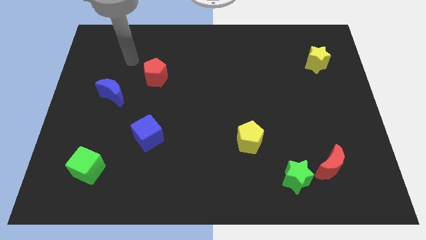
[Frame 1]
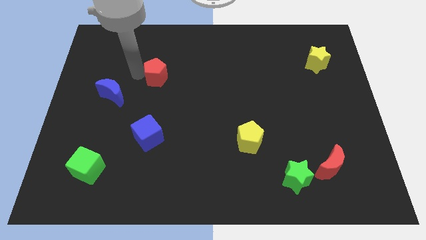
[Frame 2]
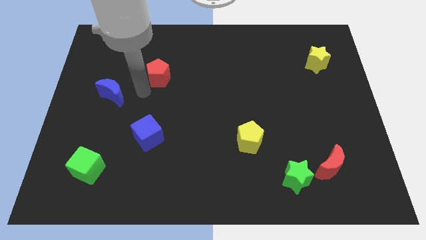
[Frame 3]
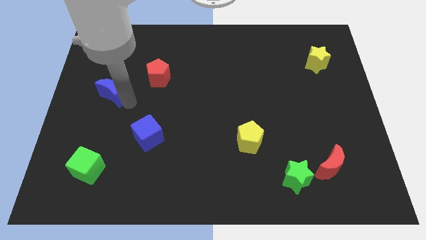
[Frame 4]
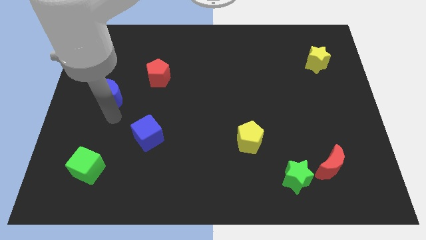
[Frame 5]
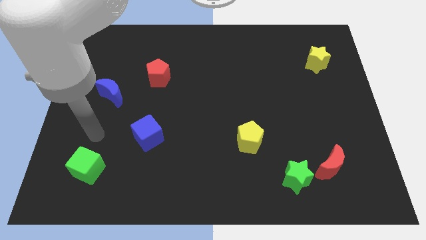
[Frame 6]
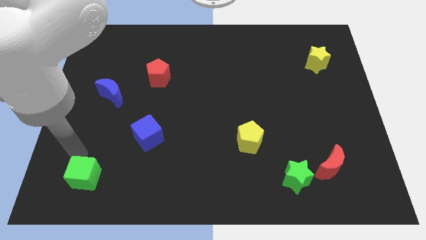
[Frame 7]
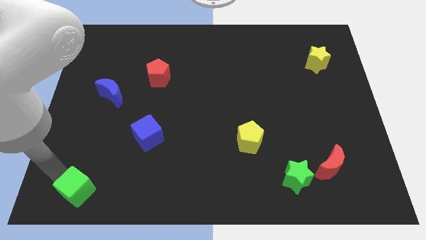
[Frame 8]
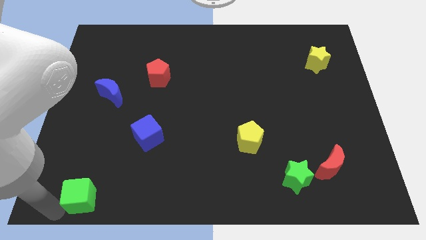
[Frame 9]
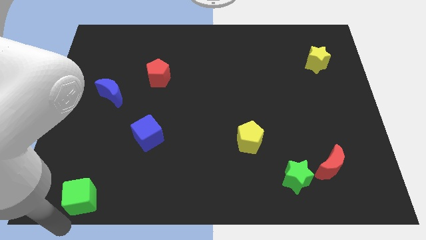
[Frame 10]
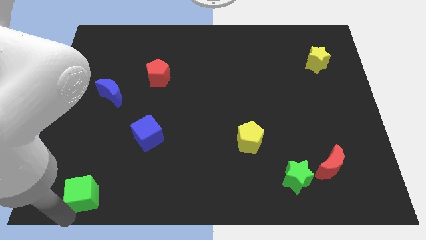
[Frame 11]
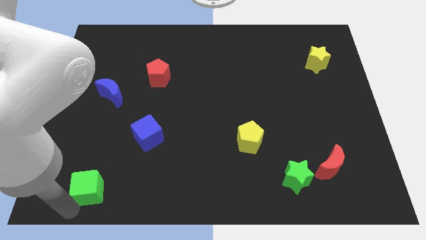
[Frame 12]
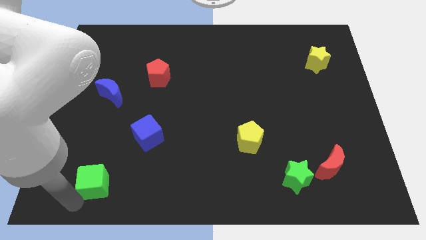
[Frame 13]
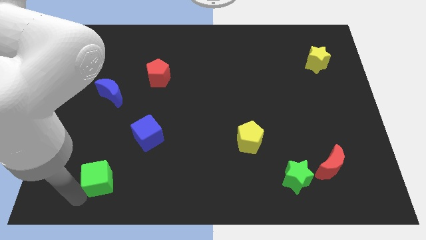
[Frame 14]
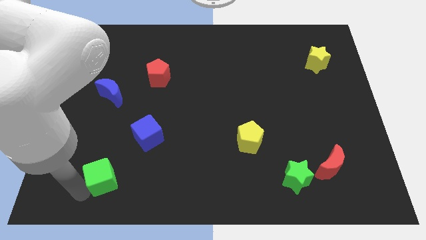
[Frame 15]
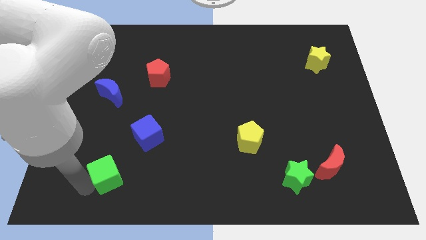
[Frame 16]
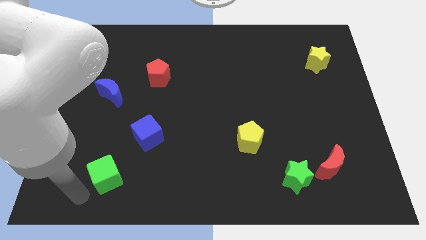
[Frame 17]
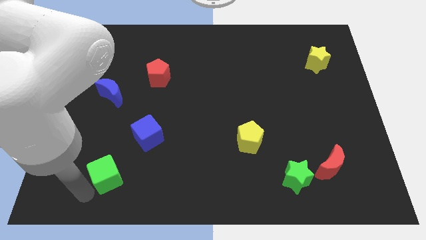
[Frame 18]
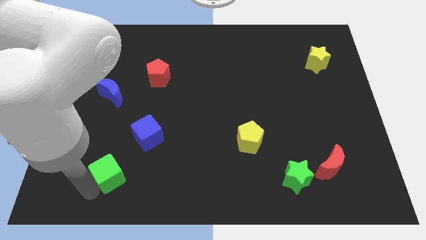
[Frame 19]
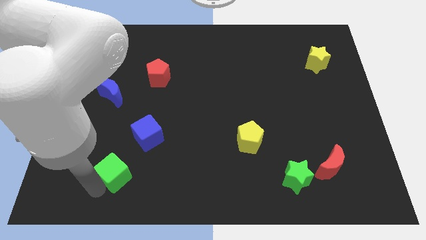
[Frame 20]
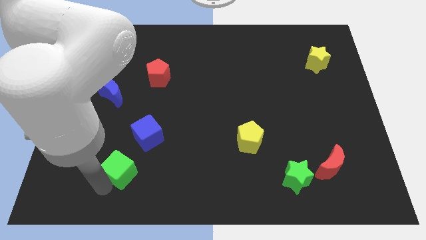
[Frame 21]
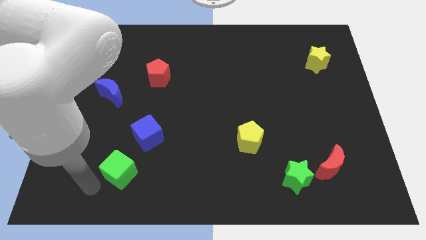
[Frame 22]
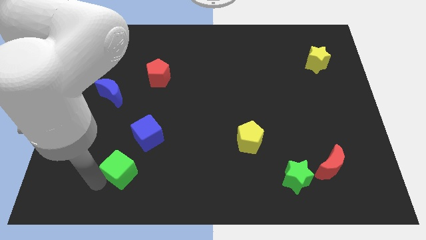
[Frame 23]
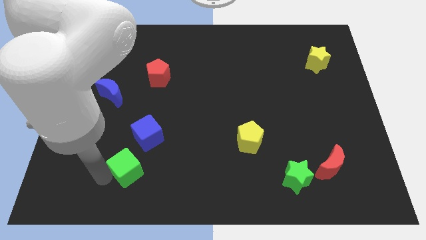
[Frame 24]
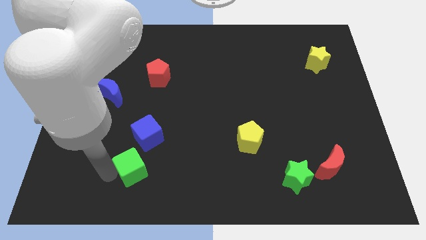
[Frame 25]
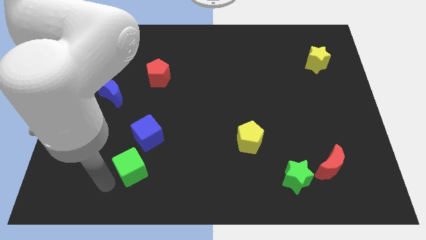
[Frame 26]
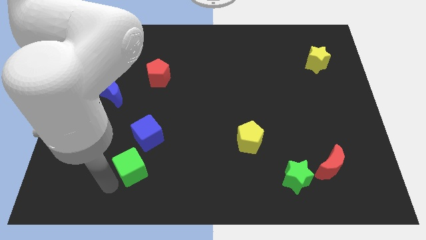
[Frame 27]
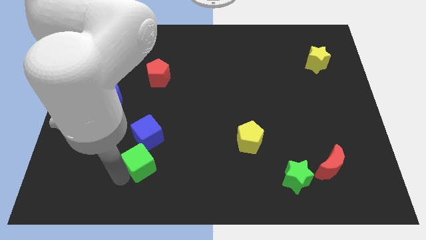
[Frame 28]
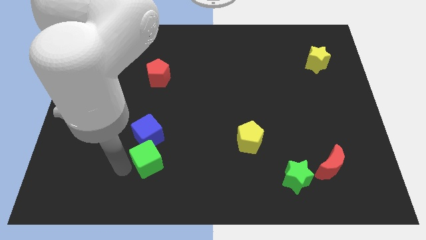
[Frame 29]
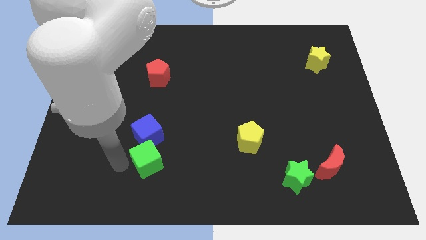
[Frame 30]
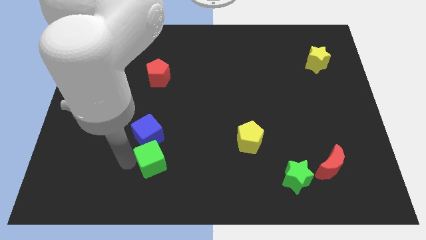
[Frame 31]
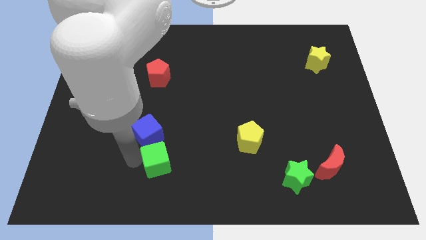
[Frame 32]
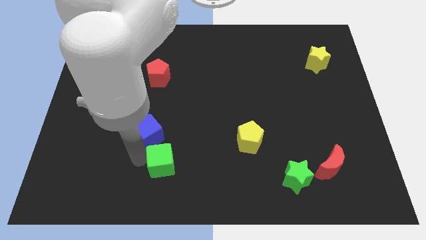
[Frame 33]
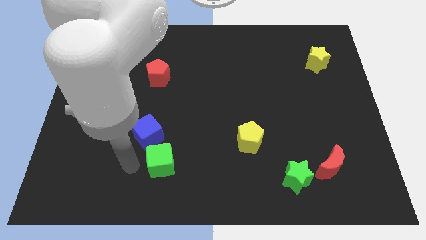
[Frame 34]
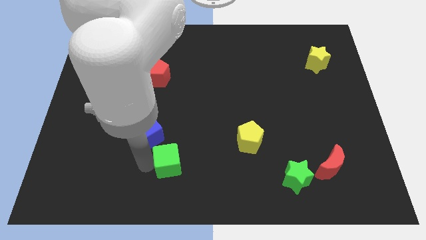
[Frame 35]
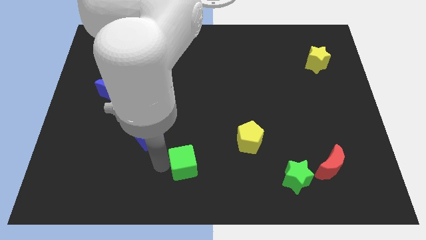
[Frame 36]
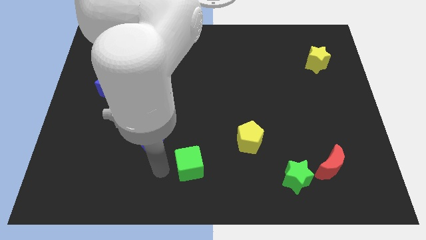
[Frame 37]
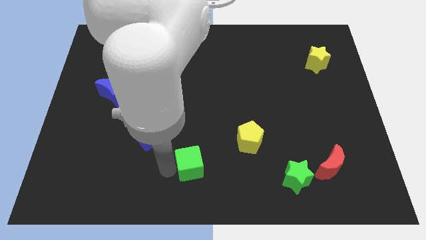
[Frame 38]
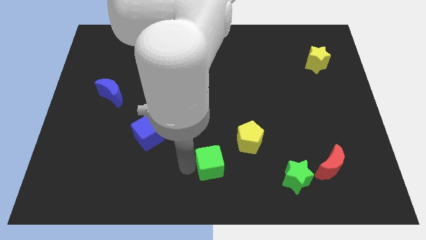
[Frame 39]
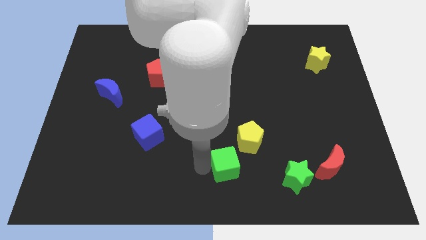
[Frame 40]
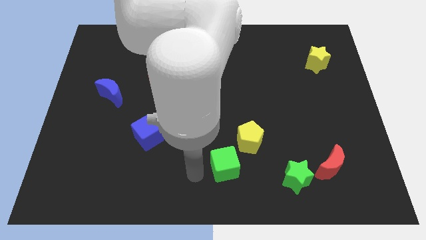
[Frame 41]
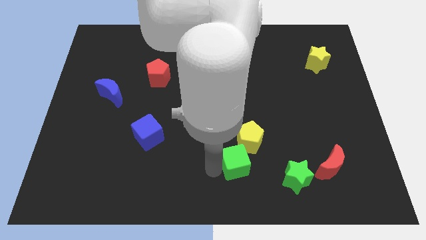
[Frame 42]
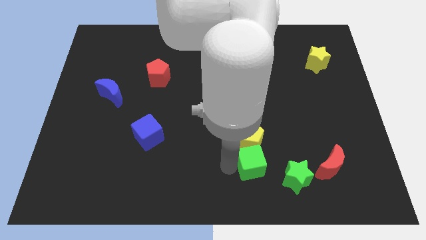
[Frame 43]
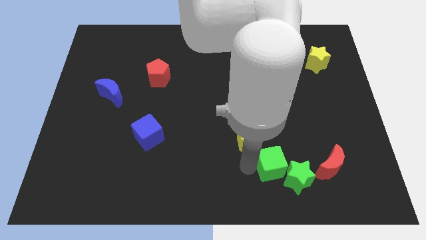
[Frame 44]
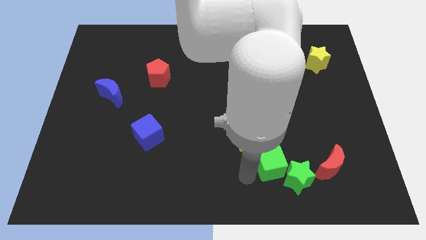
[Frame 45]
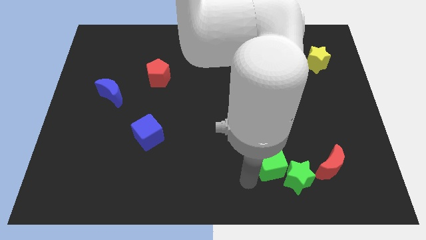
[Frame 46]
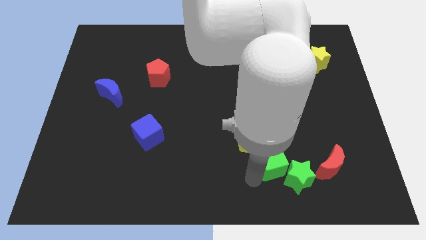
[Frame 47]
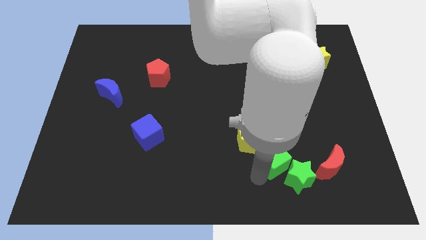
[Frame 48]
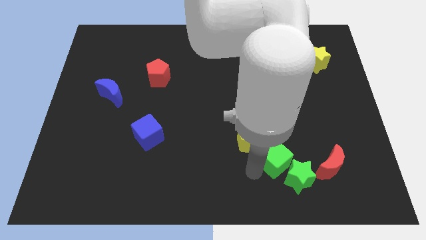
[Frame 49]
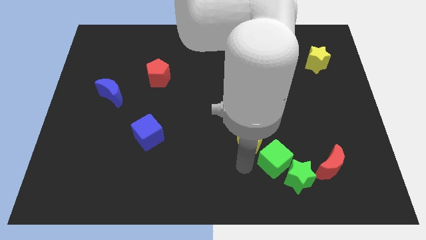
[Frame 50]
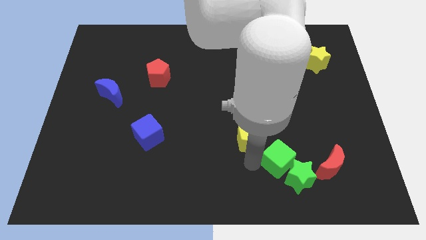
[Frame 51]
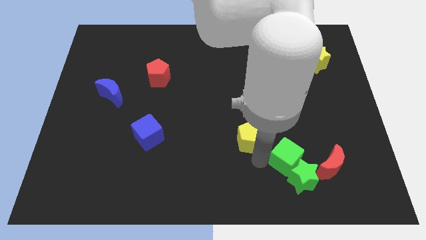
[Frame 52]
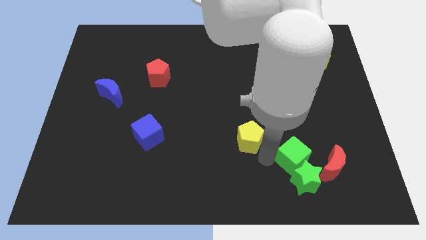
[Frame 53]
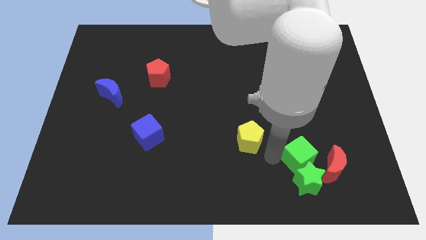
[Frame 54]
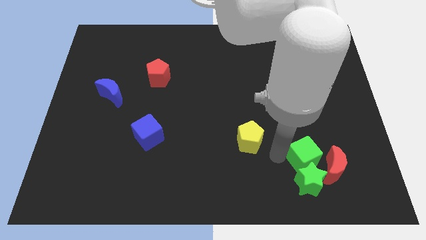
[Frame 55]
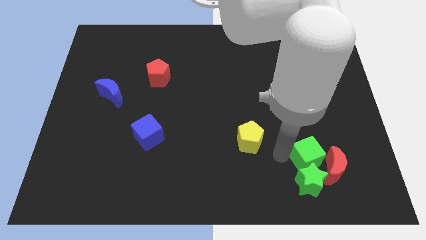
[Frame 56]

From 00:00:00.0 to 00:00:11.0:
move the green cube next to the red moon

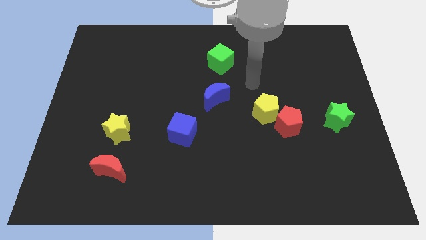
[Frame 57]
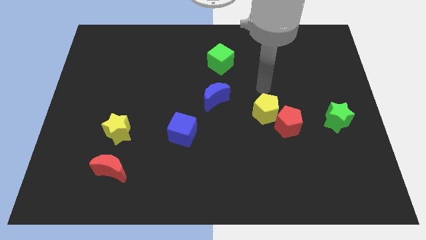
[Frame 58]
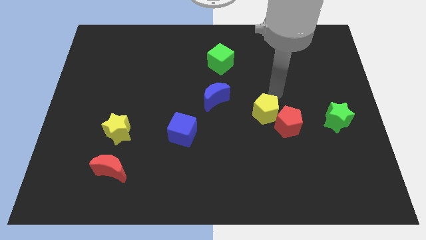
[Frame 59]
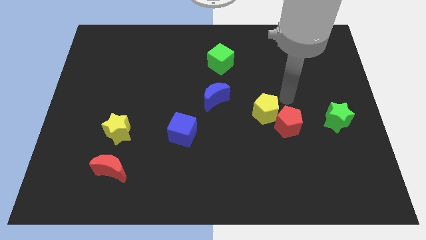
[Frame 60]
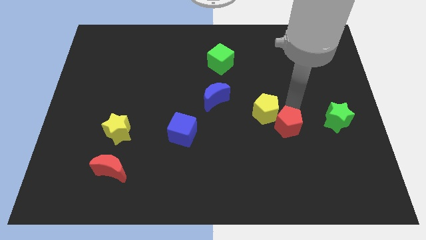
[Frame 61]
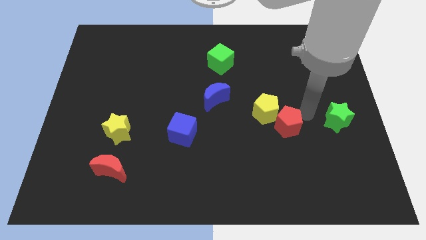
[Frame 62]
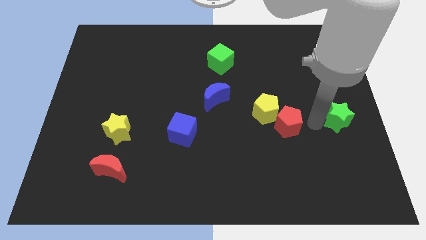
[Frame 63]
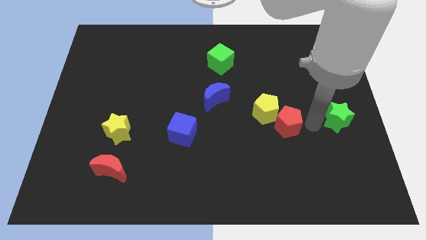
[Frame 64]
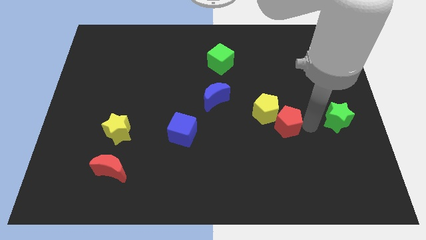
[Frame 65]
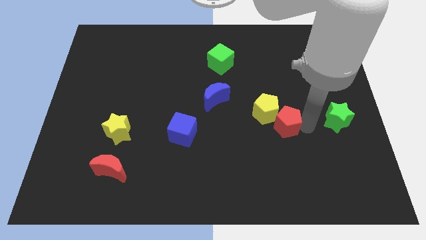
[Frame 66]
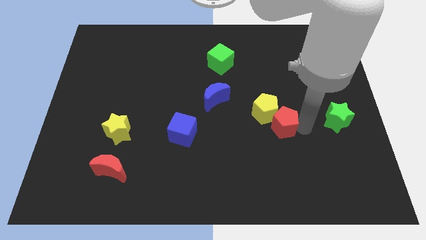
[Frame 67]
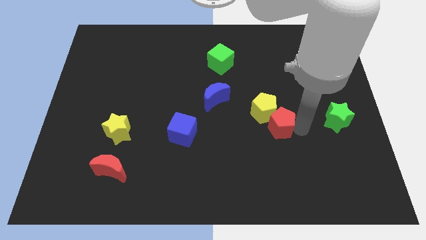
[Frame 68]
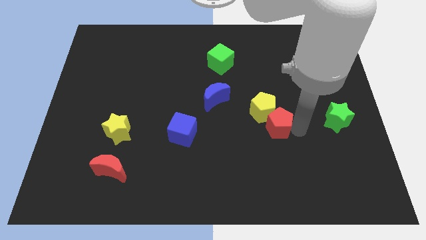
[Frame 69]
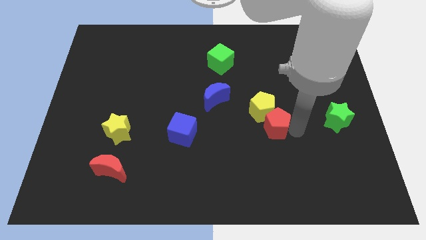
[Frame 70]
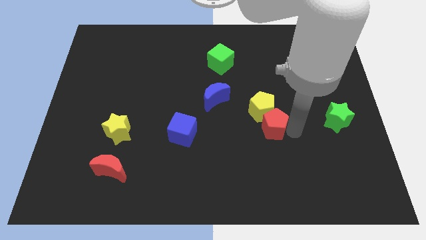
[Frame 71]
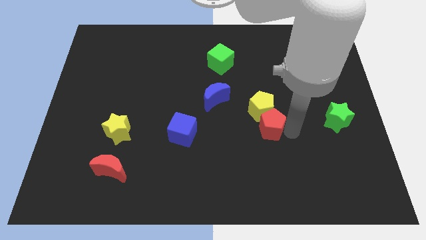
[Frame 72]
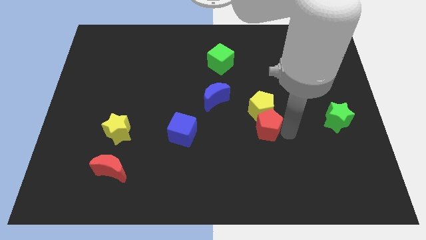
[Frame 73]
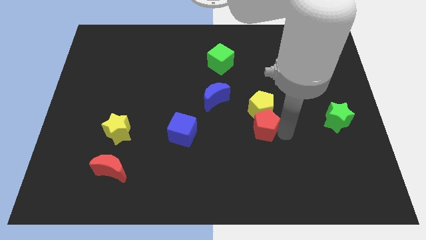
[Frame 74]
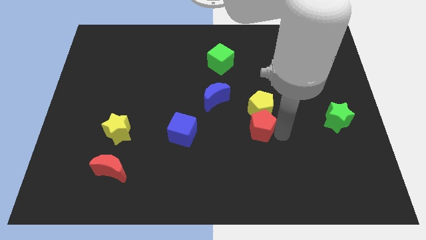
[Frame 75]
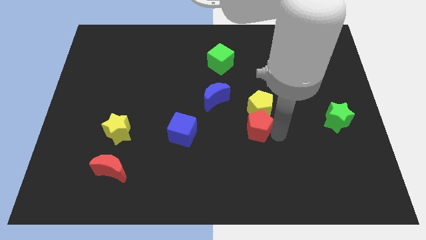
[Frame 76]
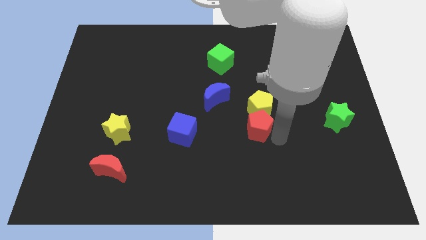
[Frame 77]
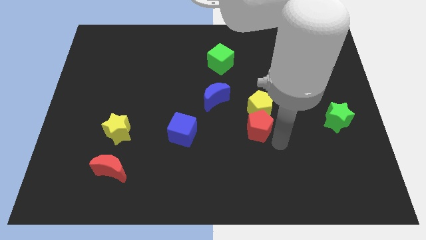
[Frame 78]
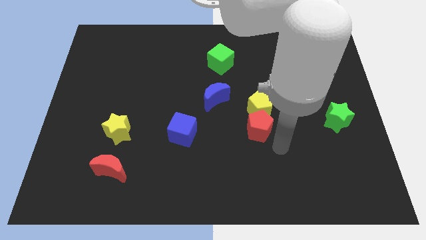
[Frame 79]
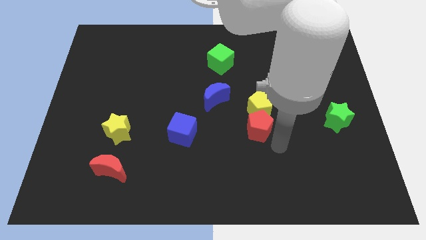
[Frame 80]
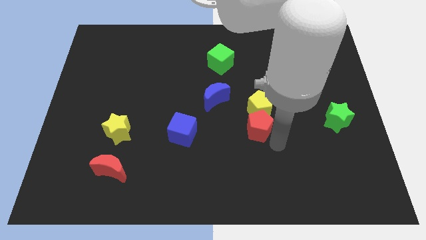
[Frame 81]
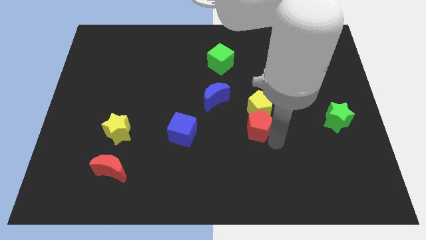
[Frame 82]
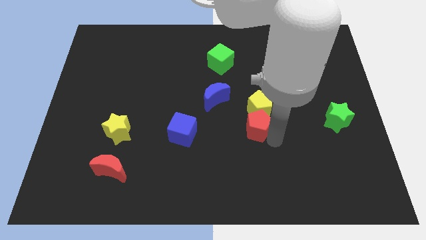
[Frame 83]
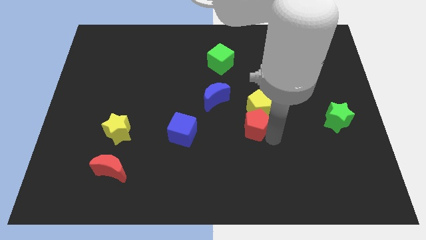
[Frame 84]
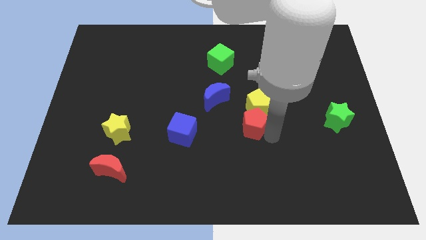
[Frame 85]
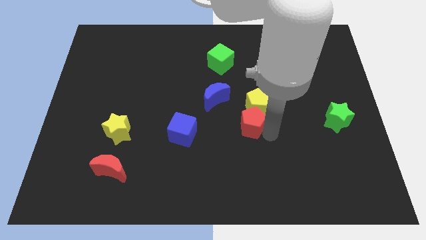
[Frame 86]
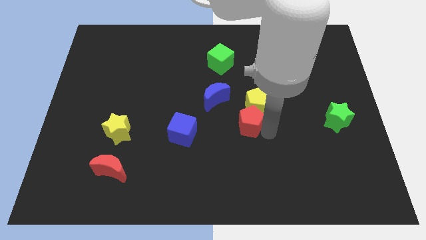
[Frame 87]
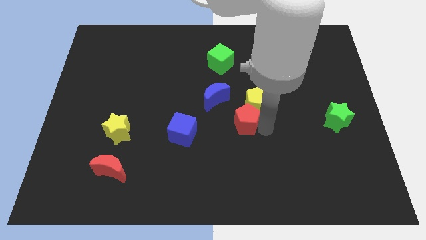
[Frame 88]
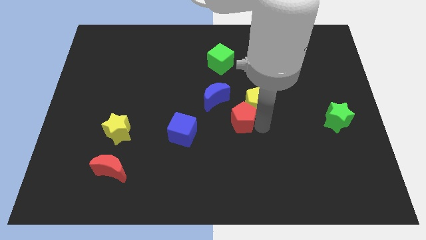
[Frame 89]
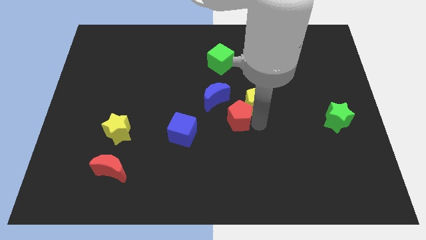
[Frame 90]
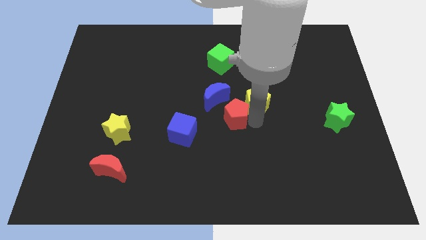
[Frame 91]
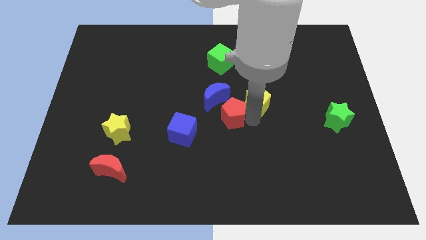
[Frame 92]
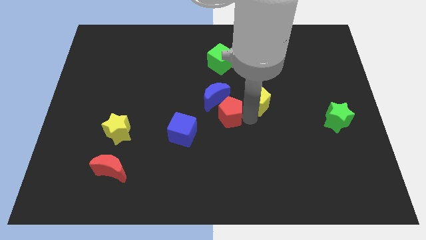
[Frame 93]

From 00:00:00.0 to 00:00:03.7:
move the red pentagon towards the blue moon
